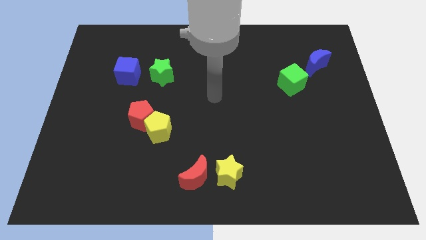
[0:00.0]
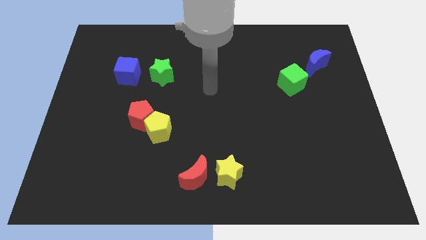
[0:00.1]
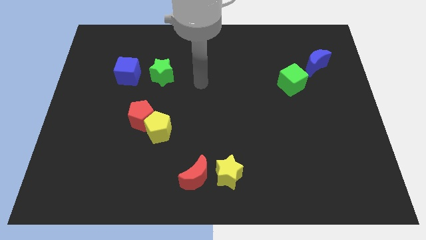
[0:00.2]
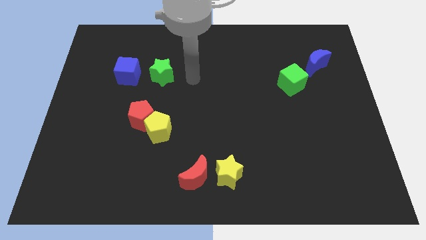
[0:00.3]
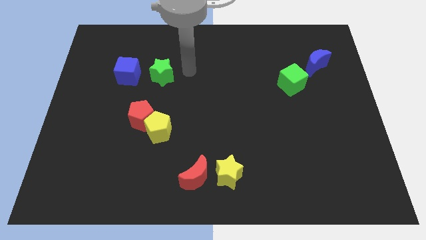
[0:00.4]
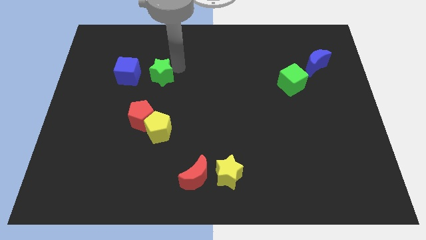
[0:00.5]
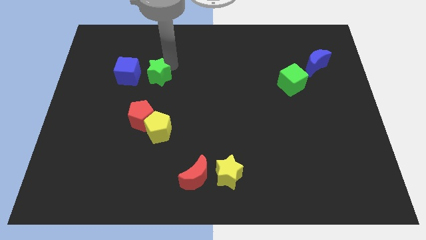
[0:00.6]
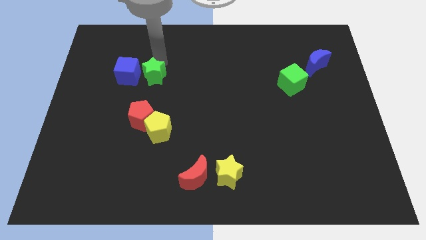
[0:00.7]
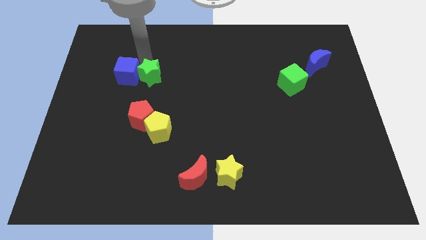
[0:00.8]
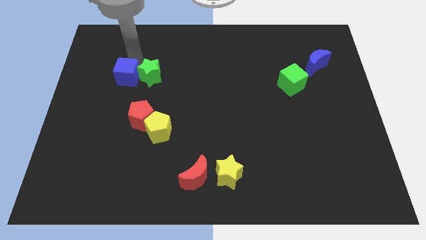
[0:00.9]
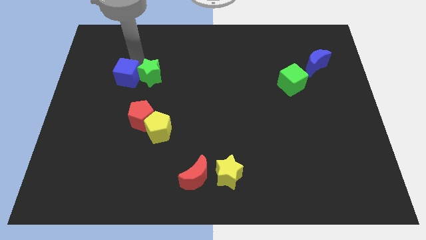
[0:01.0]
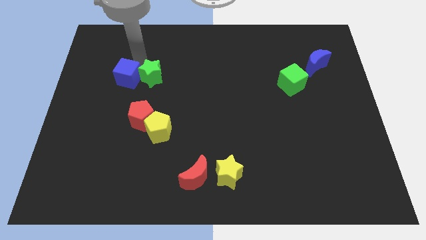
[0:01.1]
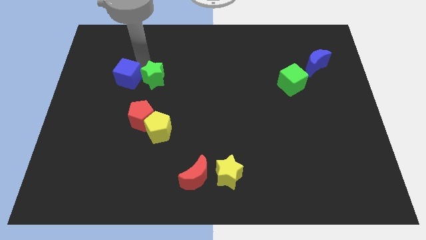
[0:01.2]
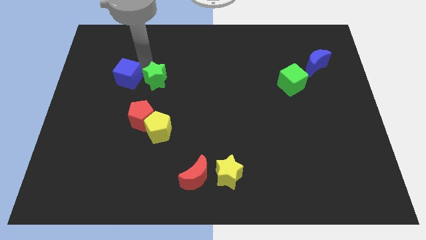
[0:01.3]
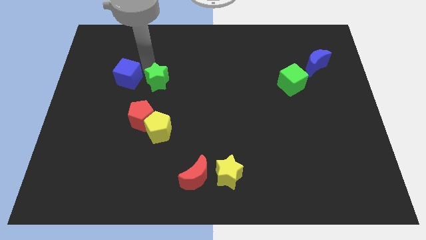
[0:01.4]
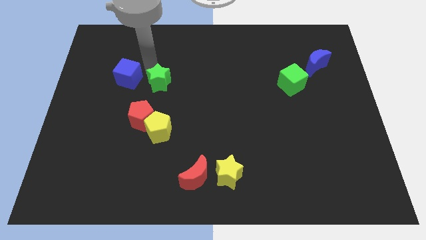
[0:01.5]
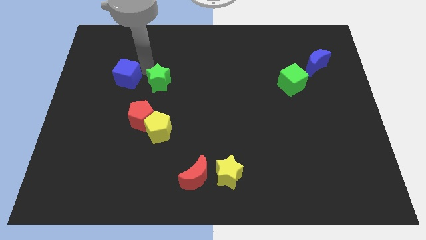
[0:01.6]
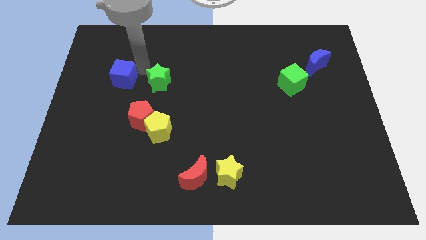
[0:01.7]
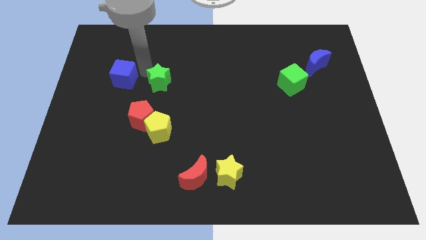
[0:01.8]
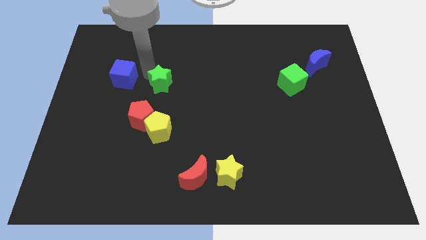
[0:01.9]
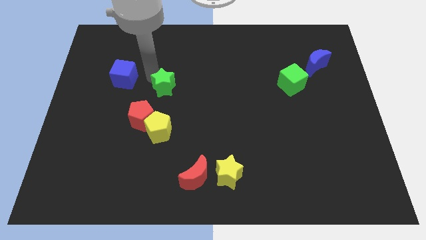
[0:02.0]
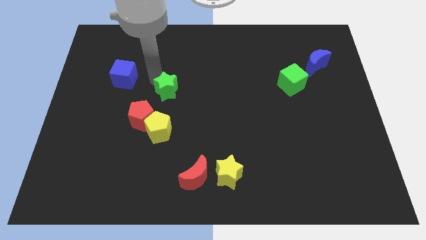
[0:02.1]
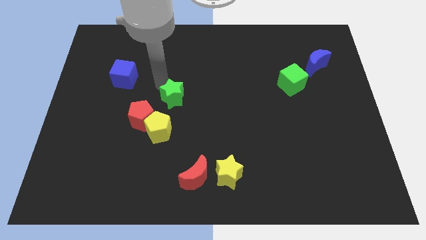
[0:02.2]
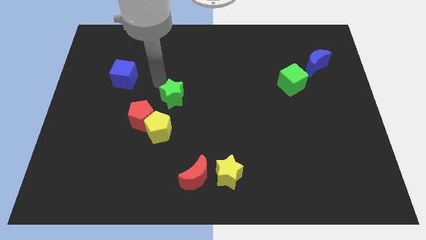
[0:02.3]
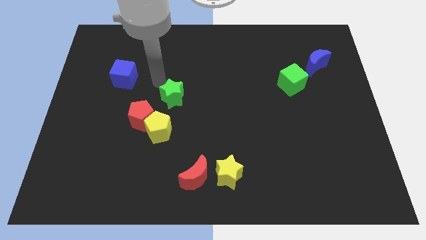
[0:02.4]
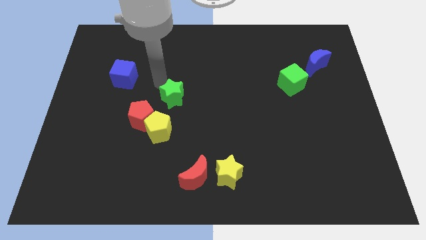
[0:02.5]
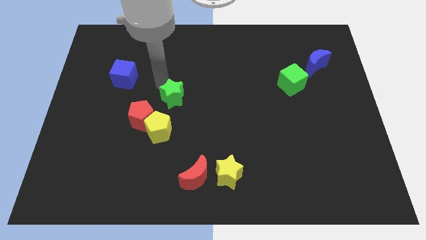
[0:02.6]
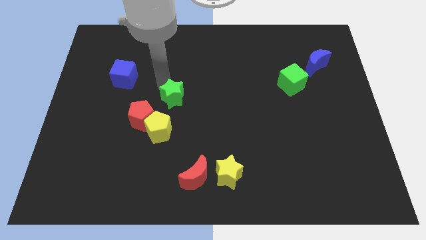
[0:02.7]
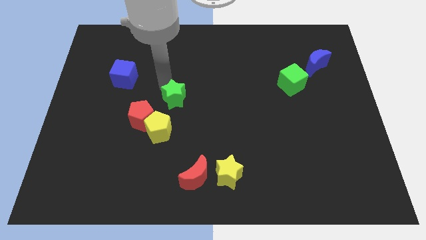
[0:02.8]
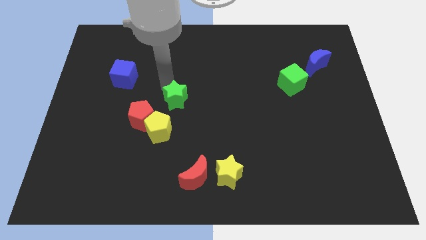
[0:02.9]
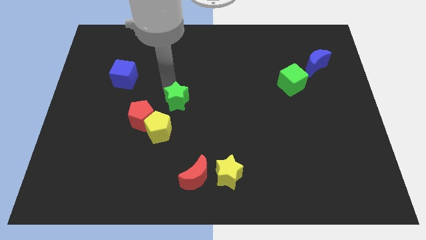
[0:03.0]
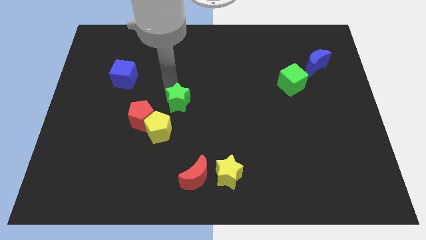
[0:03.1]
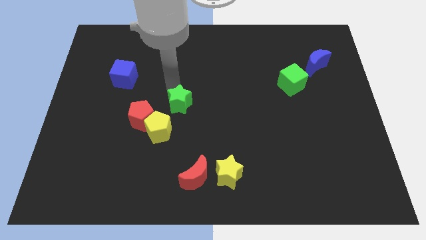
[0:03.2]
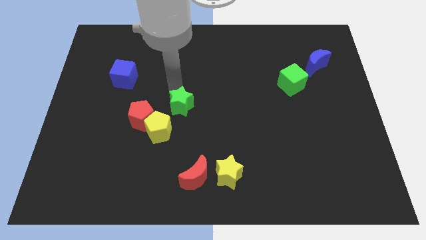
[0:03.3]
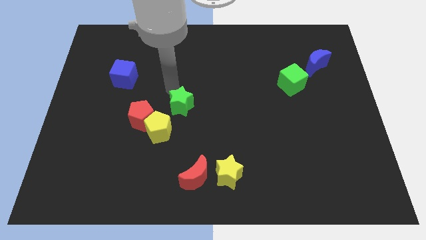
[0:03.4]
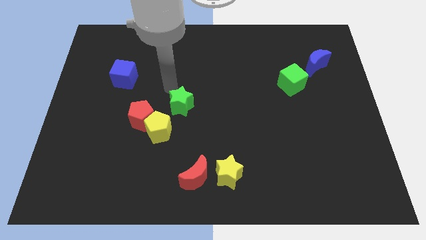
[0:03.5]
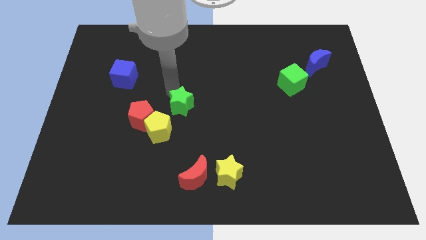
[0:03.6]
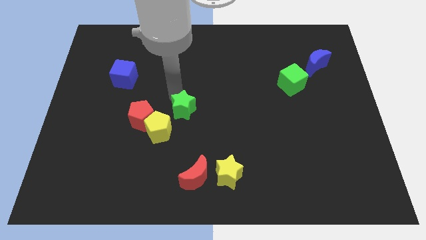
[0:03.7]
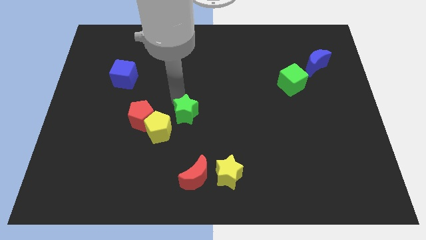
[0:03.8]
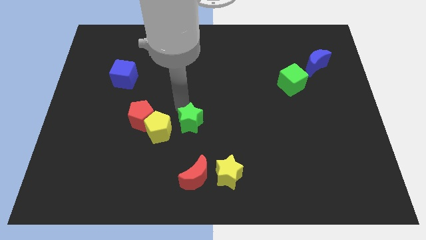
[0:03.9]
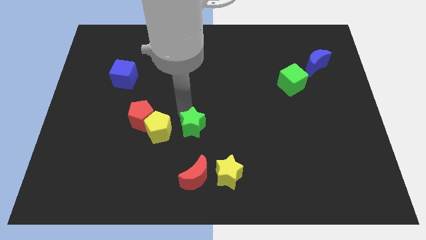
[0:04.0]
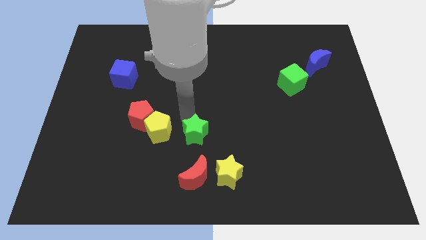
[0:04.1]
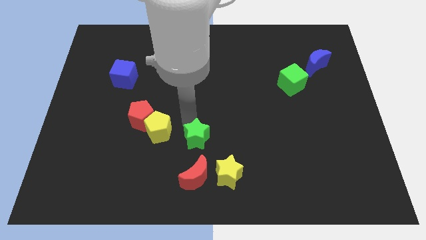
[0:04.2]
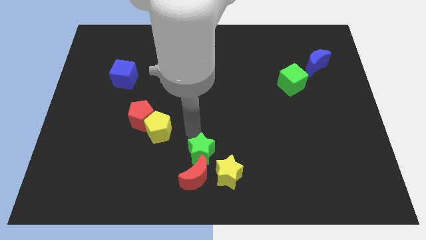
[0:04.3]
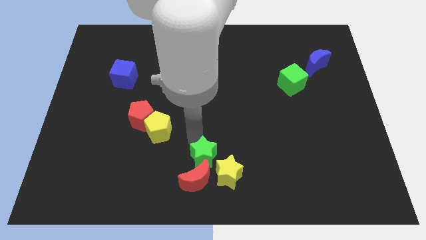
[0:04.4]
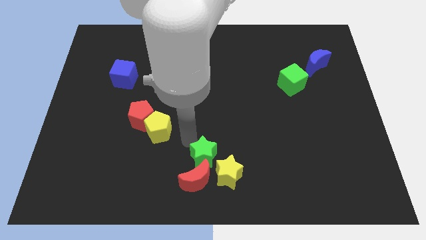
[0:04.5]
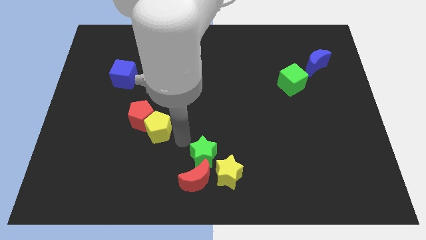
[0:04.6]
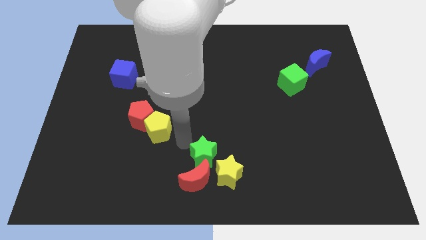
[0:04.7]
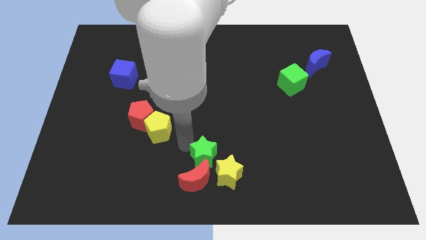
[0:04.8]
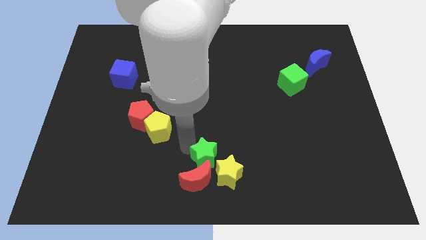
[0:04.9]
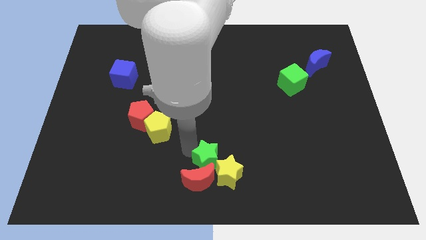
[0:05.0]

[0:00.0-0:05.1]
move the green star to the yellow star

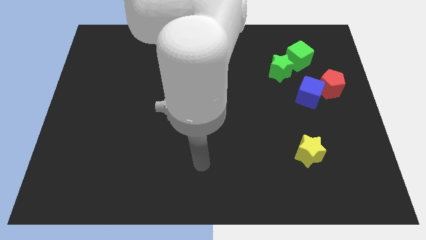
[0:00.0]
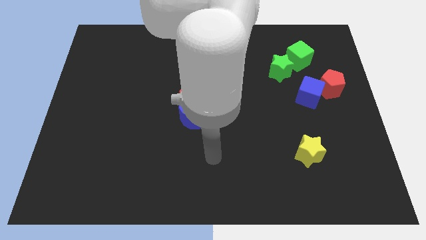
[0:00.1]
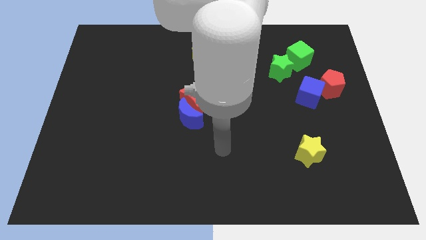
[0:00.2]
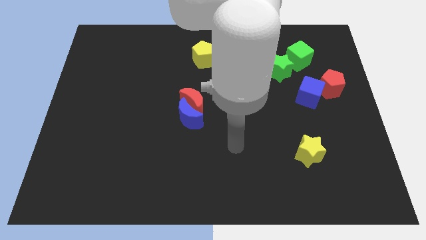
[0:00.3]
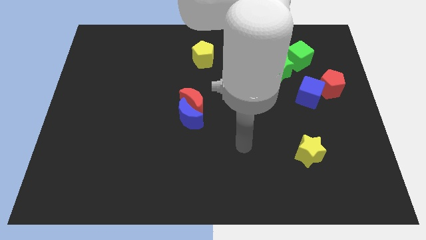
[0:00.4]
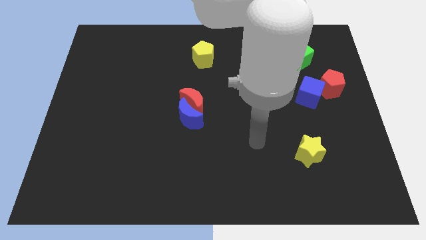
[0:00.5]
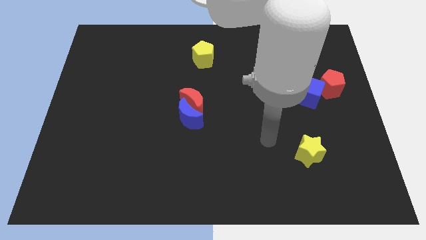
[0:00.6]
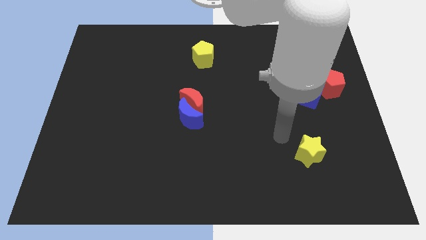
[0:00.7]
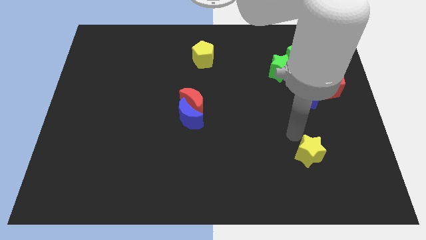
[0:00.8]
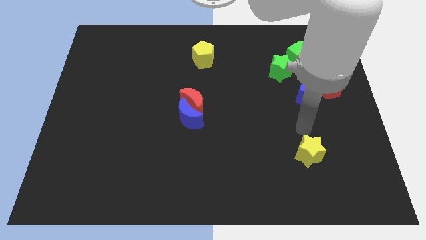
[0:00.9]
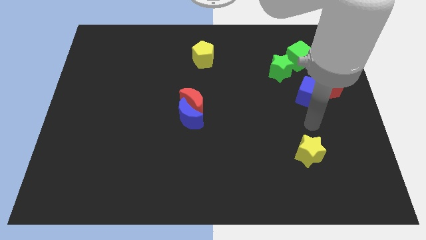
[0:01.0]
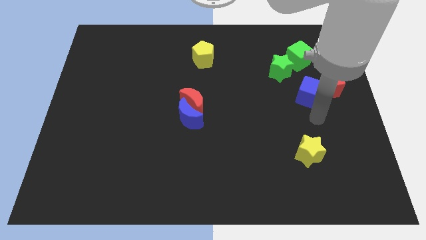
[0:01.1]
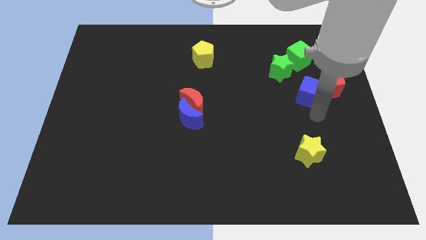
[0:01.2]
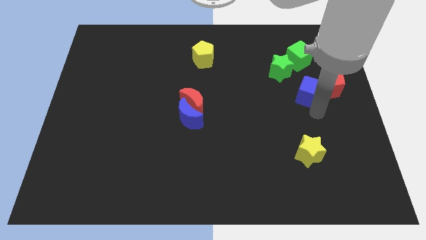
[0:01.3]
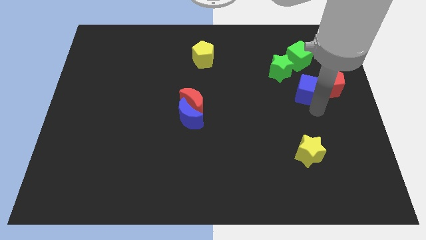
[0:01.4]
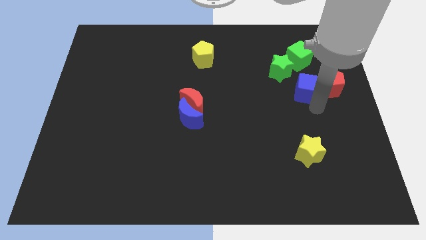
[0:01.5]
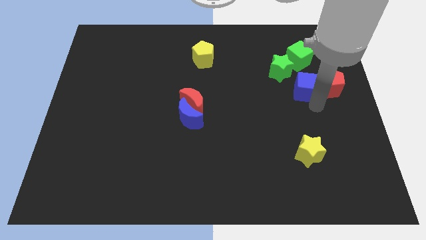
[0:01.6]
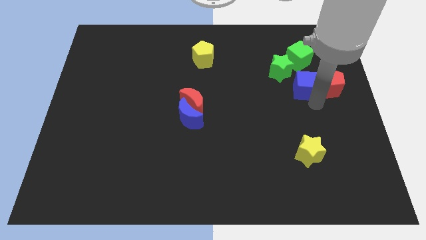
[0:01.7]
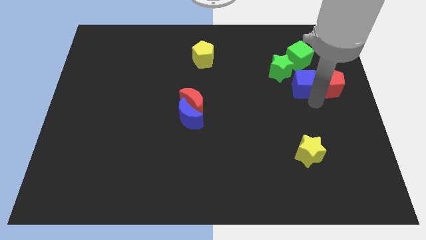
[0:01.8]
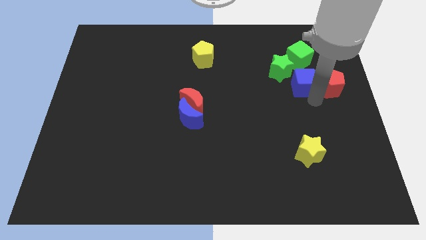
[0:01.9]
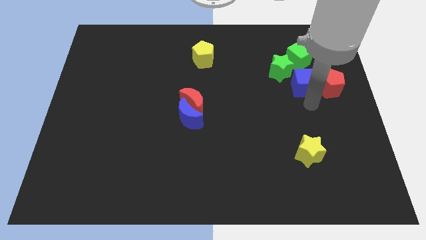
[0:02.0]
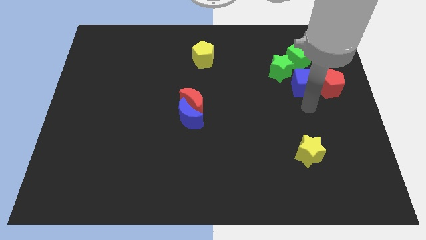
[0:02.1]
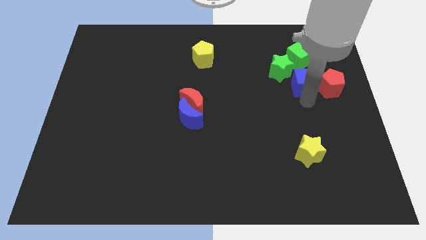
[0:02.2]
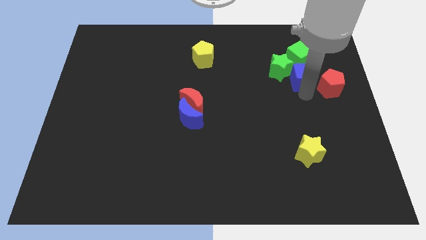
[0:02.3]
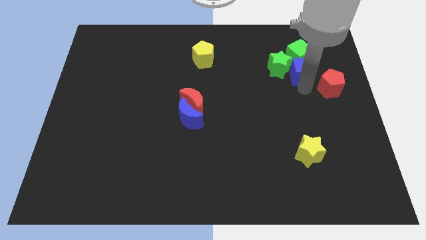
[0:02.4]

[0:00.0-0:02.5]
move the blue cube to the green cube

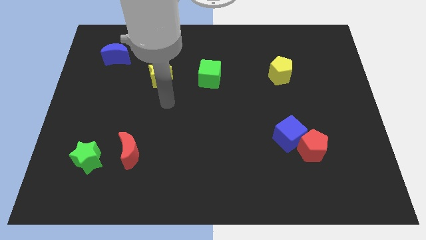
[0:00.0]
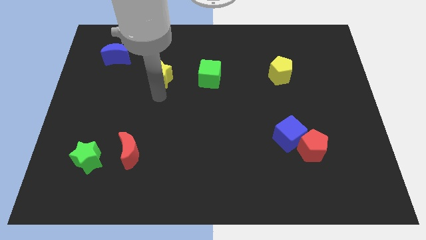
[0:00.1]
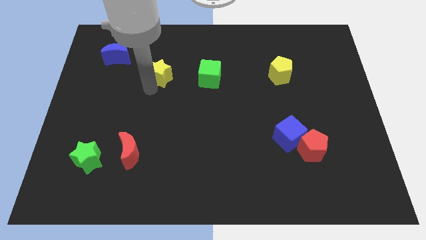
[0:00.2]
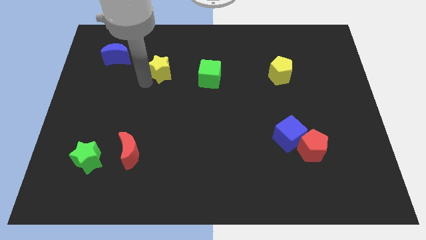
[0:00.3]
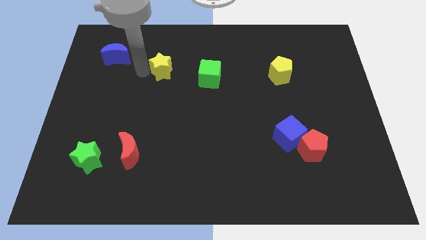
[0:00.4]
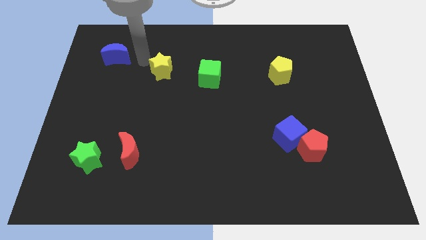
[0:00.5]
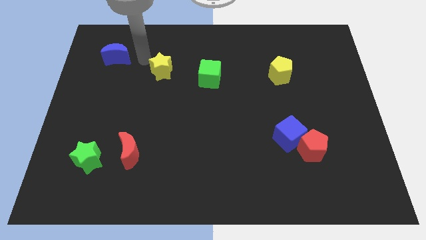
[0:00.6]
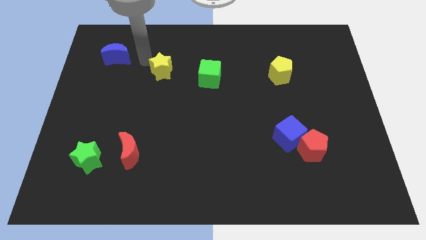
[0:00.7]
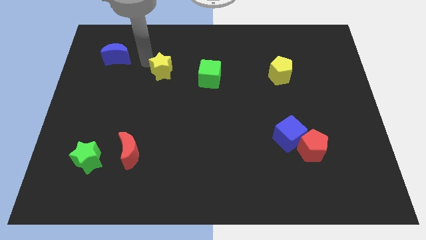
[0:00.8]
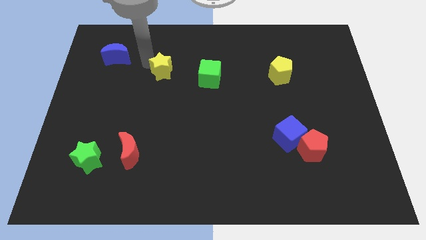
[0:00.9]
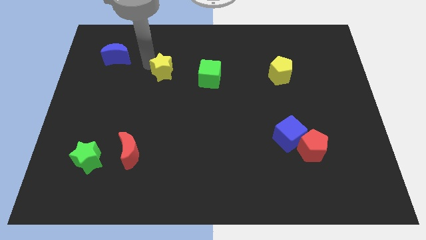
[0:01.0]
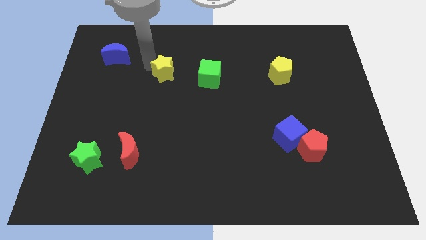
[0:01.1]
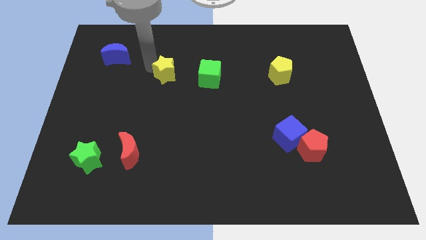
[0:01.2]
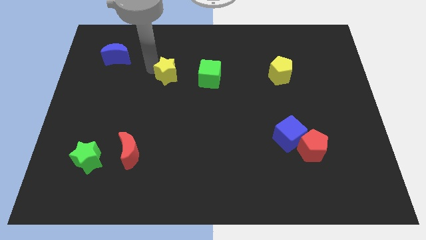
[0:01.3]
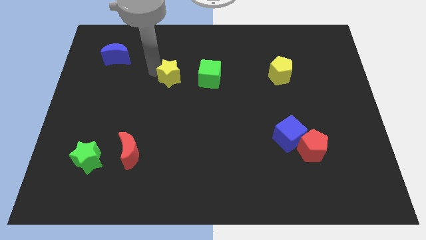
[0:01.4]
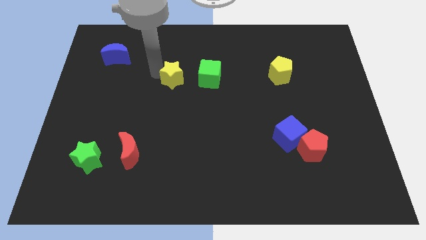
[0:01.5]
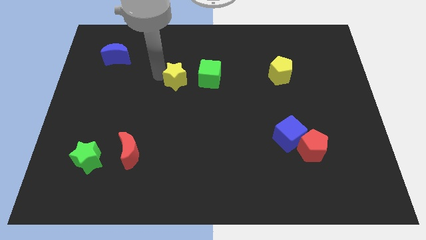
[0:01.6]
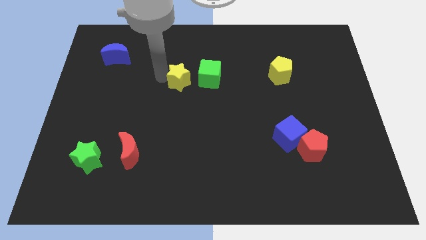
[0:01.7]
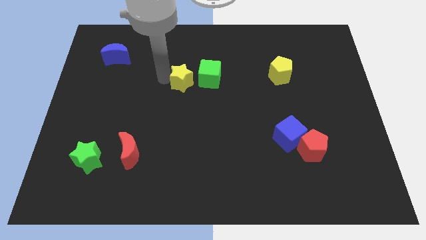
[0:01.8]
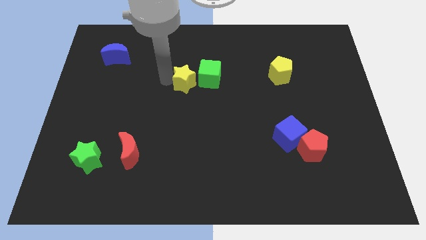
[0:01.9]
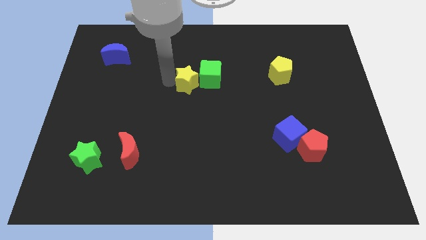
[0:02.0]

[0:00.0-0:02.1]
move the yellow star close to the green cube
